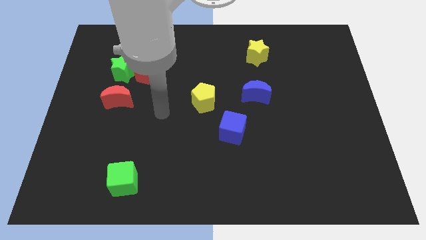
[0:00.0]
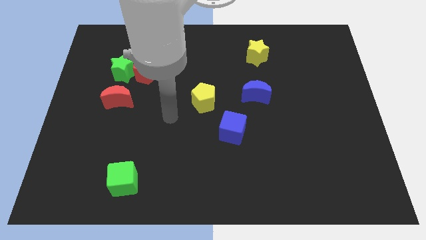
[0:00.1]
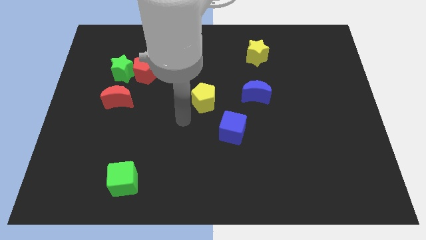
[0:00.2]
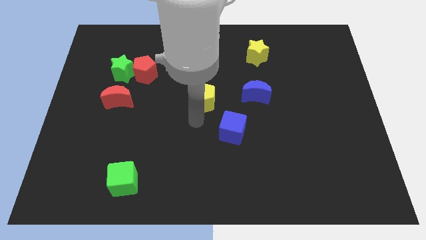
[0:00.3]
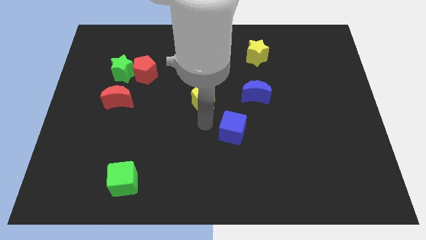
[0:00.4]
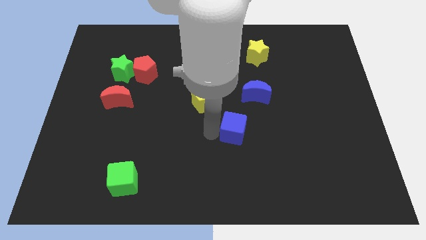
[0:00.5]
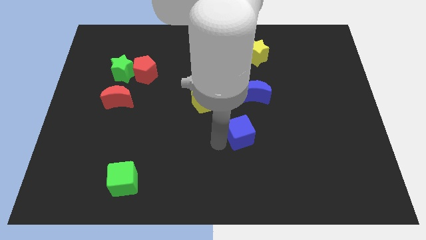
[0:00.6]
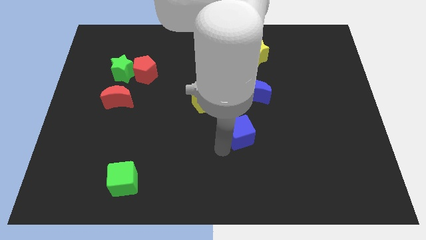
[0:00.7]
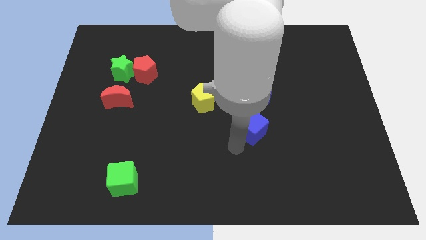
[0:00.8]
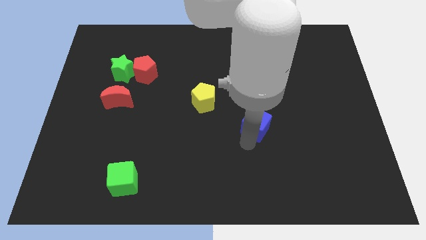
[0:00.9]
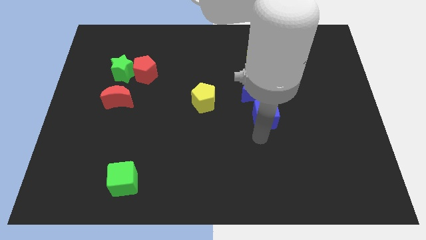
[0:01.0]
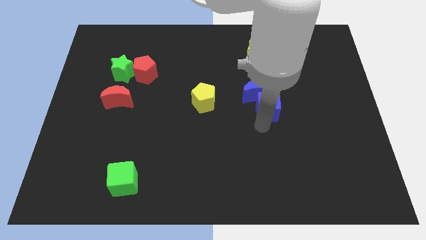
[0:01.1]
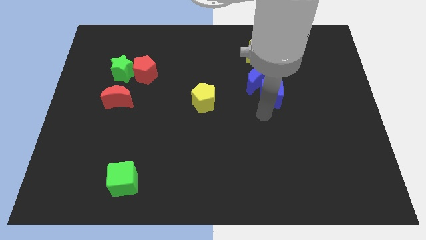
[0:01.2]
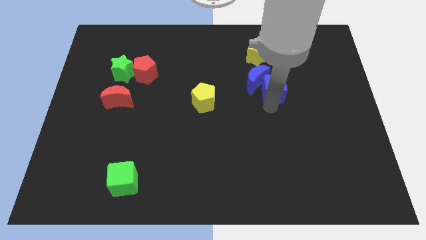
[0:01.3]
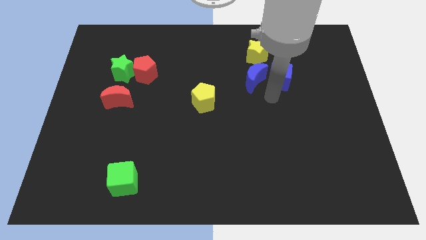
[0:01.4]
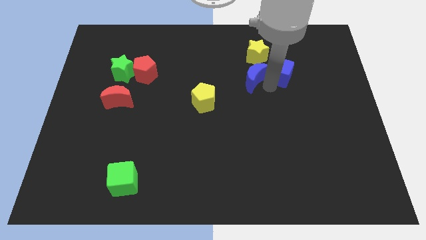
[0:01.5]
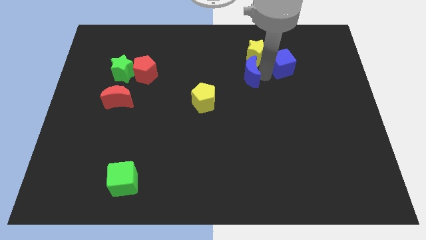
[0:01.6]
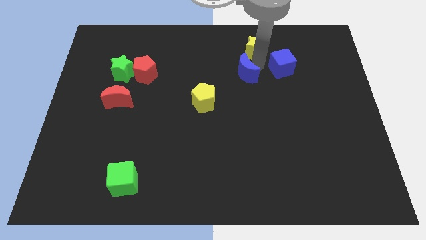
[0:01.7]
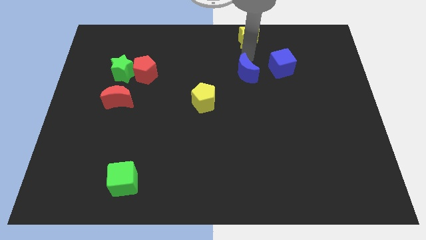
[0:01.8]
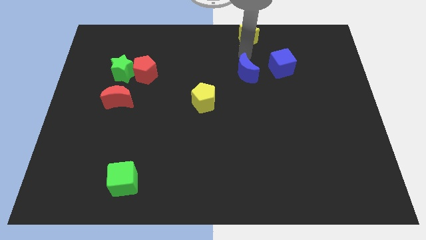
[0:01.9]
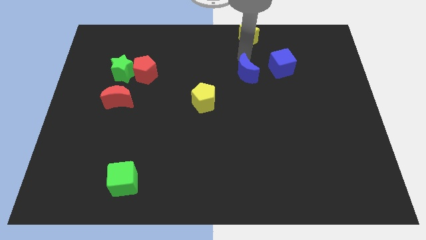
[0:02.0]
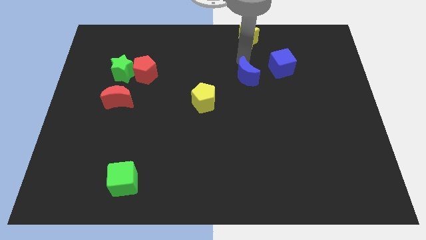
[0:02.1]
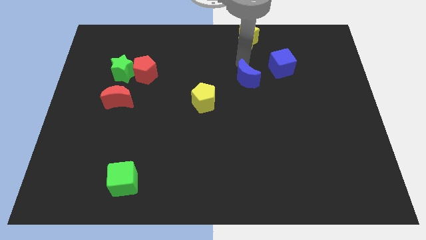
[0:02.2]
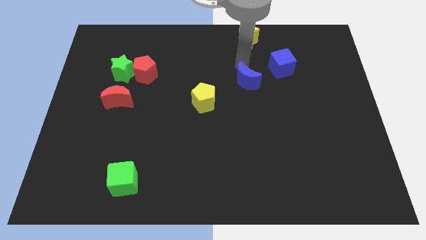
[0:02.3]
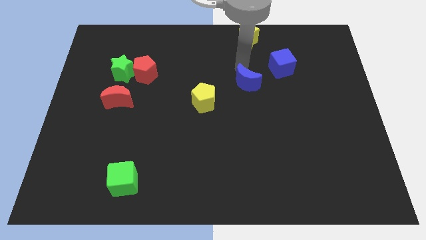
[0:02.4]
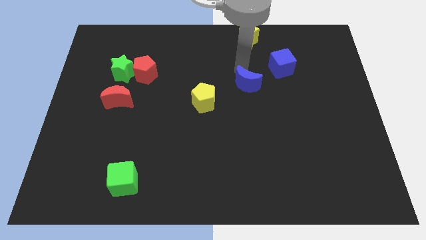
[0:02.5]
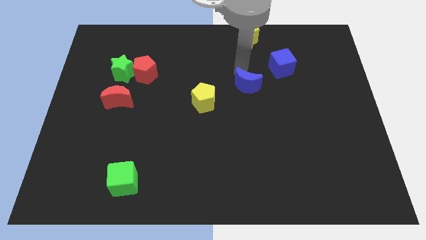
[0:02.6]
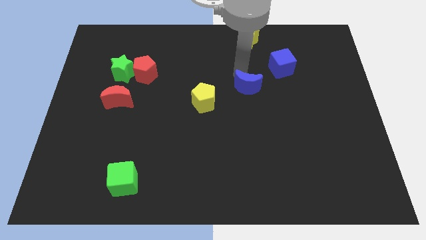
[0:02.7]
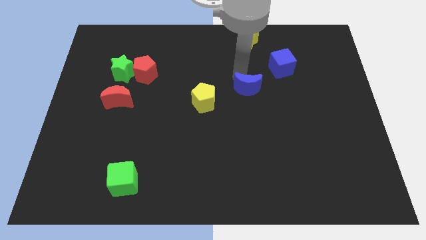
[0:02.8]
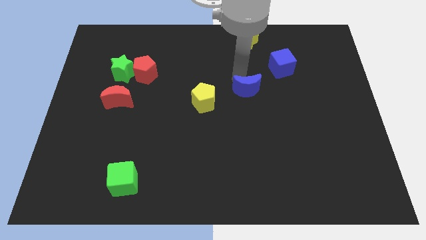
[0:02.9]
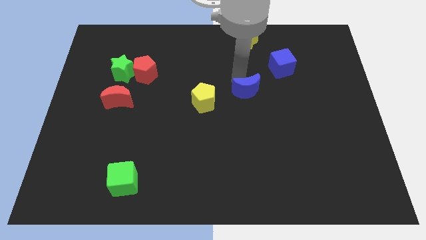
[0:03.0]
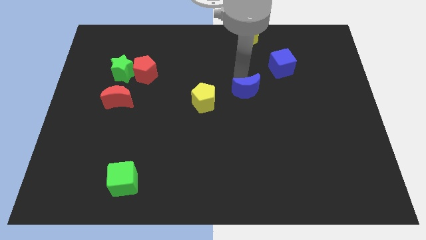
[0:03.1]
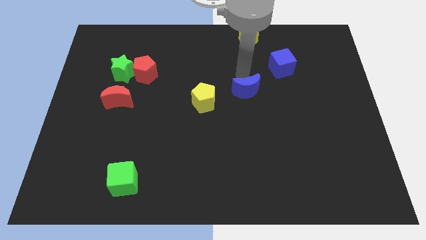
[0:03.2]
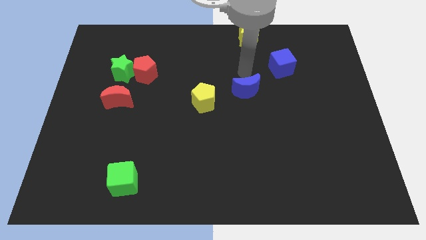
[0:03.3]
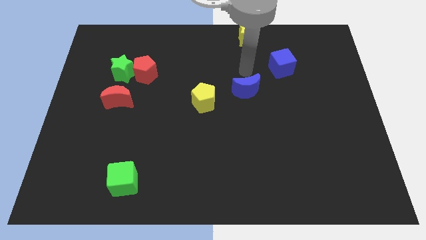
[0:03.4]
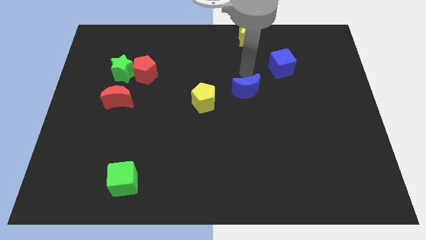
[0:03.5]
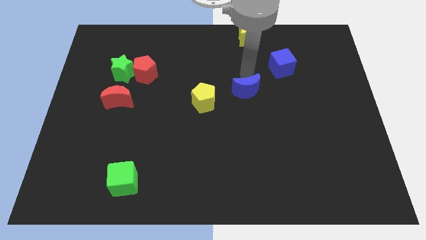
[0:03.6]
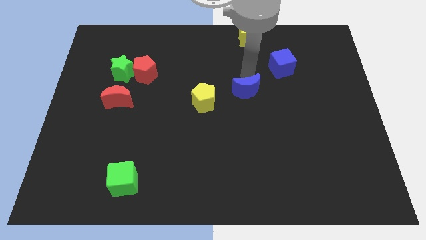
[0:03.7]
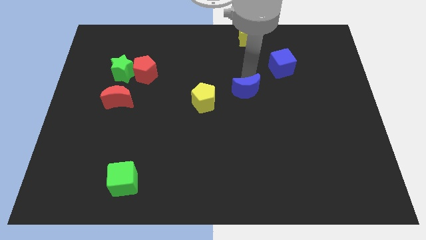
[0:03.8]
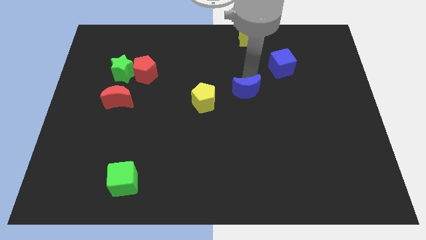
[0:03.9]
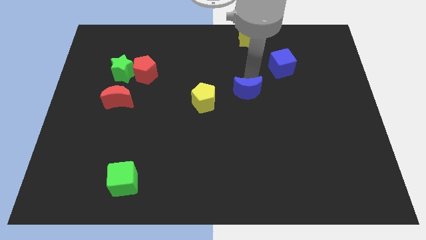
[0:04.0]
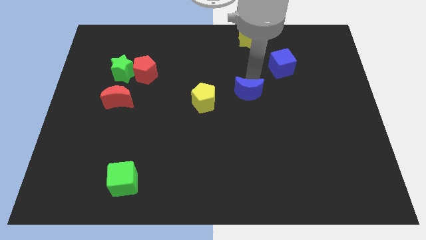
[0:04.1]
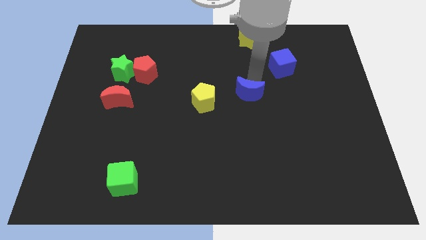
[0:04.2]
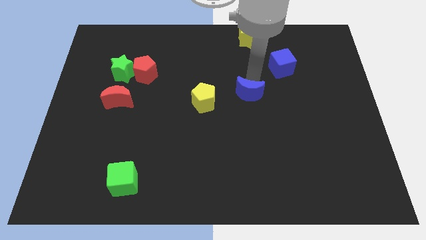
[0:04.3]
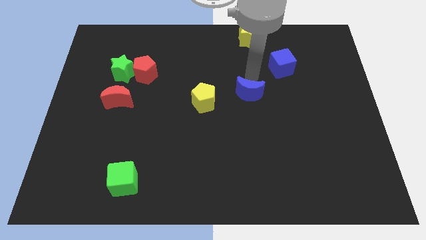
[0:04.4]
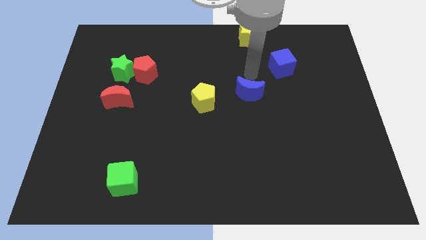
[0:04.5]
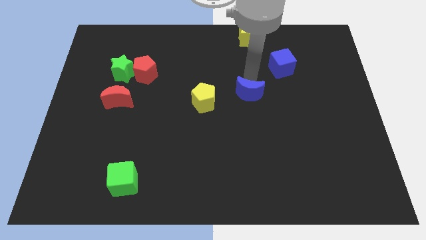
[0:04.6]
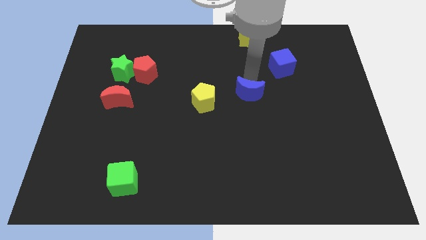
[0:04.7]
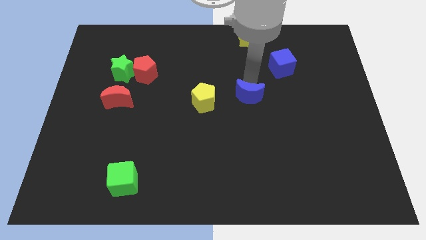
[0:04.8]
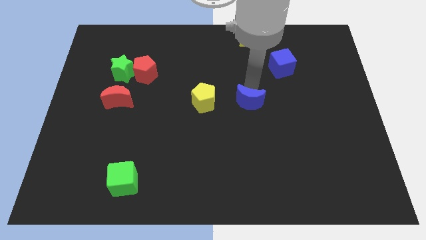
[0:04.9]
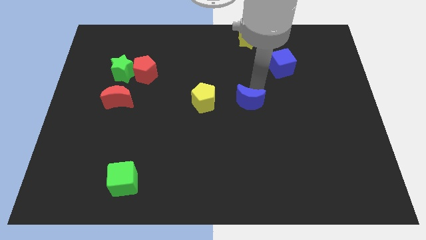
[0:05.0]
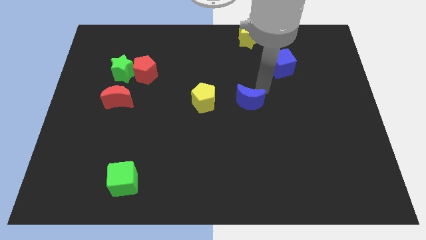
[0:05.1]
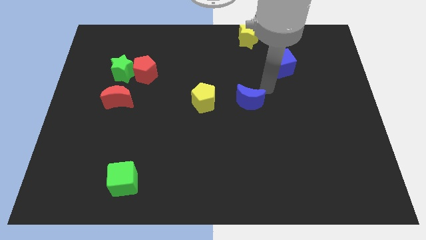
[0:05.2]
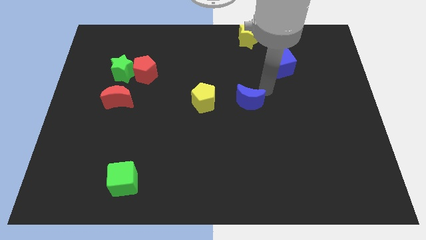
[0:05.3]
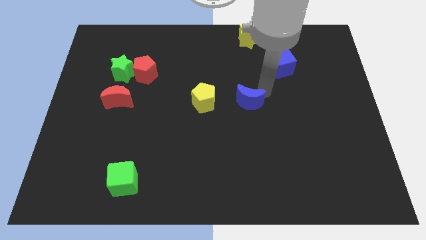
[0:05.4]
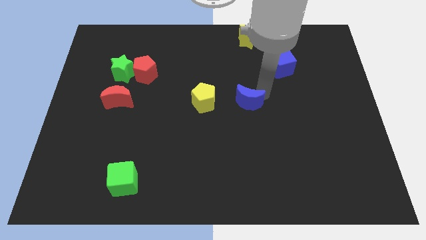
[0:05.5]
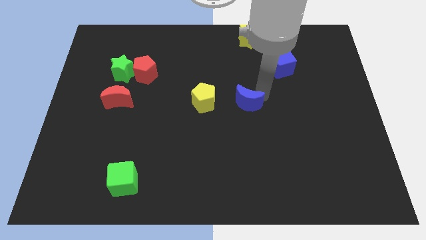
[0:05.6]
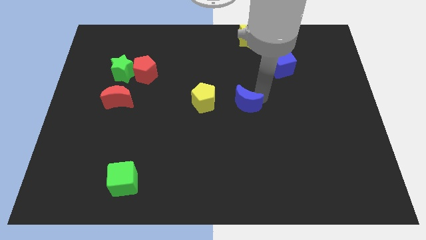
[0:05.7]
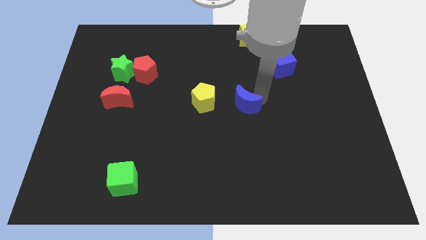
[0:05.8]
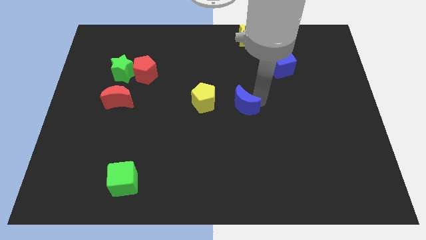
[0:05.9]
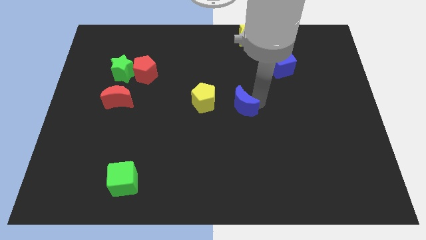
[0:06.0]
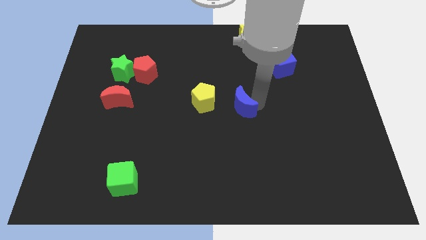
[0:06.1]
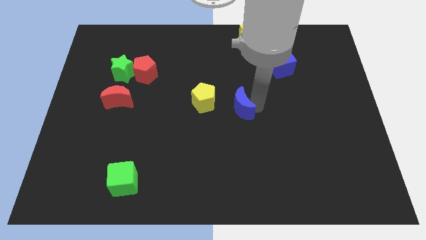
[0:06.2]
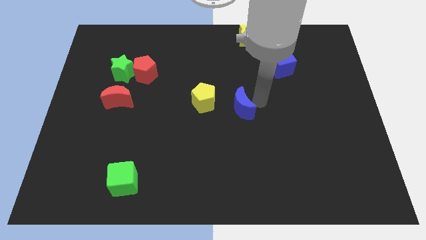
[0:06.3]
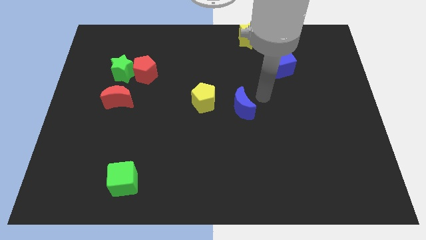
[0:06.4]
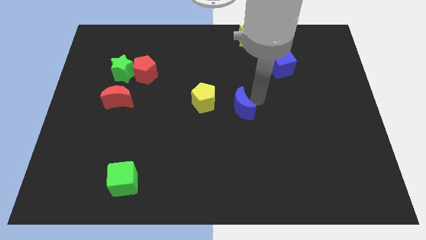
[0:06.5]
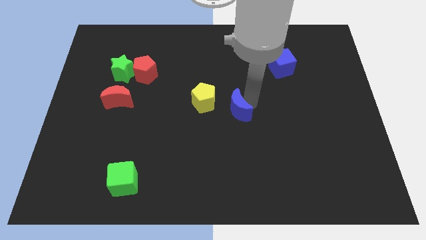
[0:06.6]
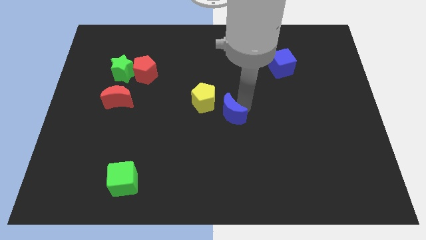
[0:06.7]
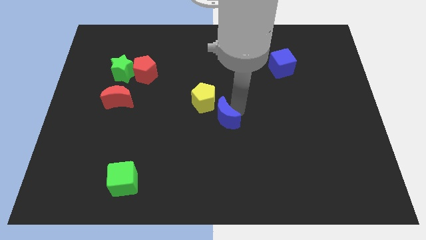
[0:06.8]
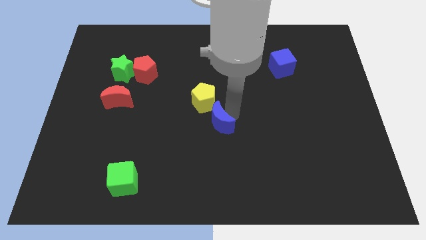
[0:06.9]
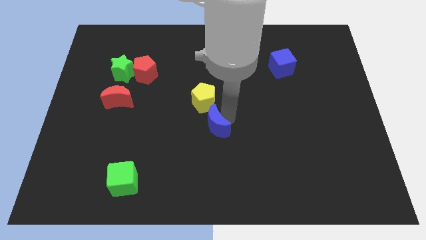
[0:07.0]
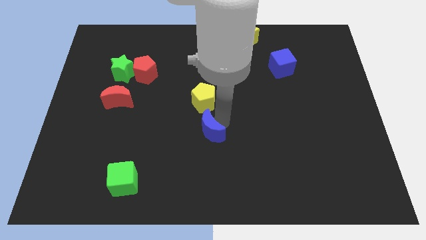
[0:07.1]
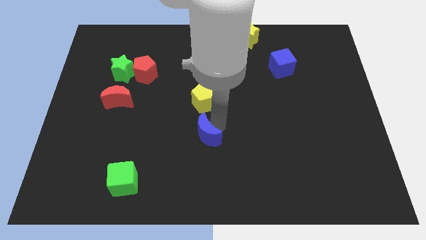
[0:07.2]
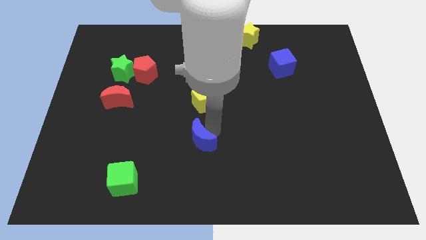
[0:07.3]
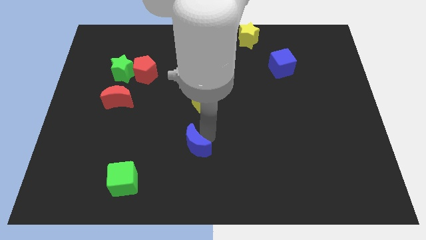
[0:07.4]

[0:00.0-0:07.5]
push the blue moon down and to the left diagonally

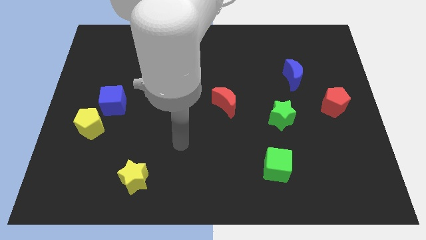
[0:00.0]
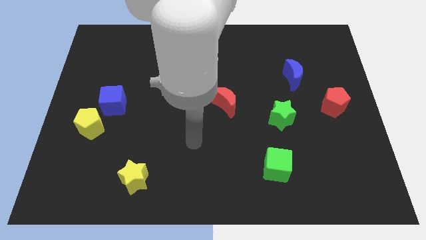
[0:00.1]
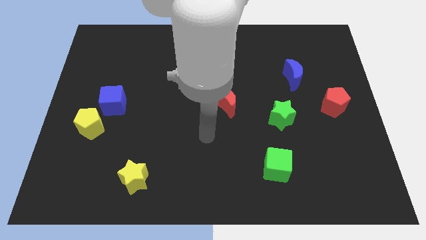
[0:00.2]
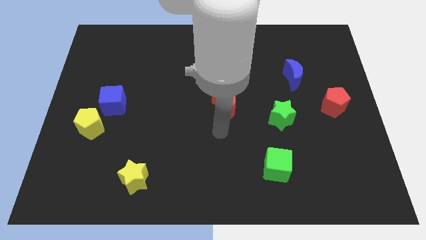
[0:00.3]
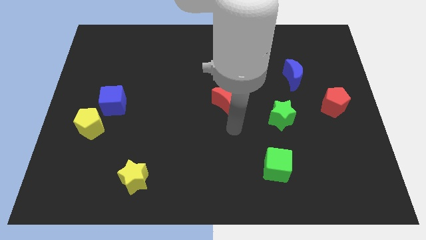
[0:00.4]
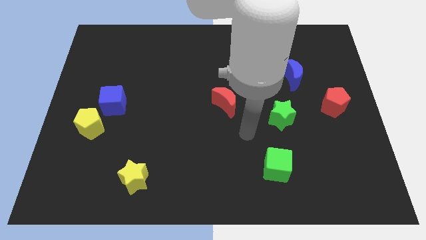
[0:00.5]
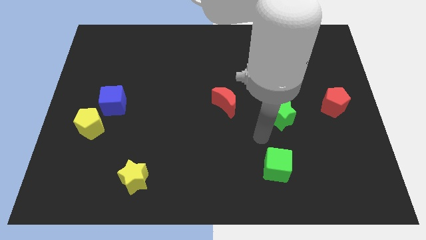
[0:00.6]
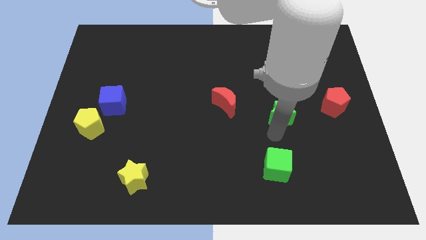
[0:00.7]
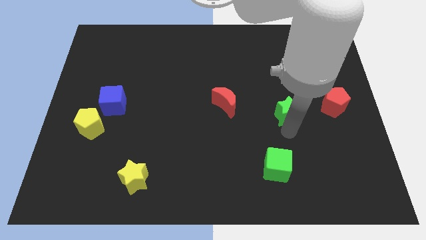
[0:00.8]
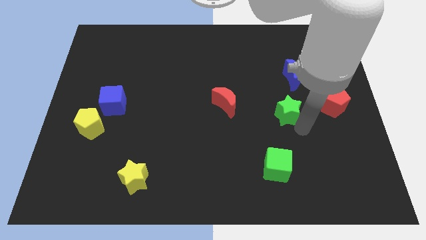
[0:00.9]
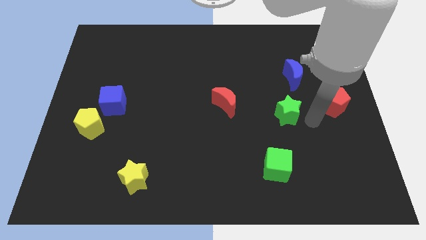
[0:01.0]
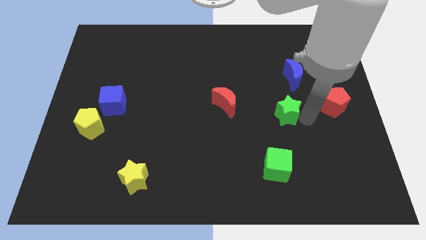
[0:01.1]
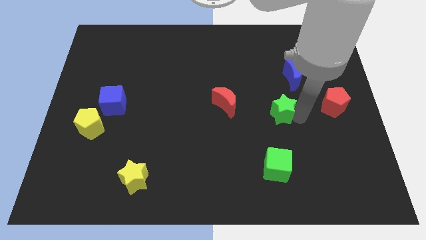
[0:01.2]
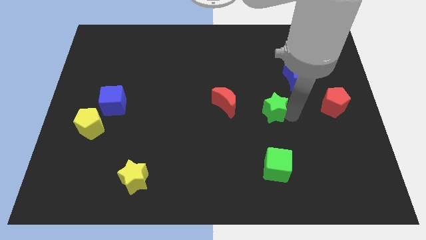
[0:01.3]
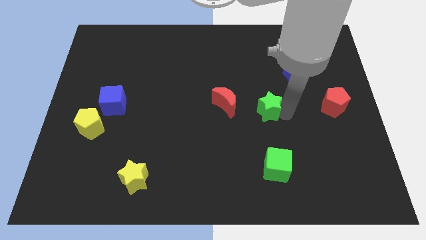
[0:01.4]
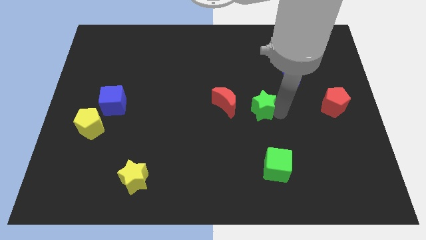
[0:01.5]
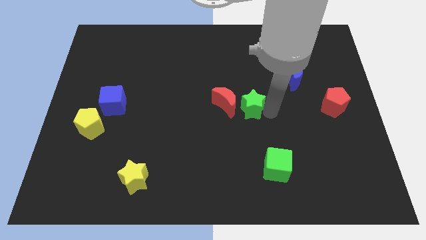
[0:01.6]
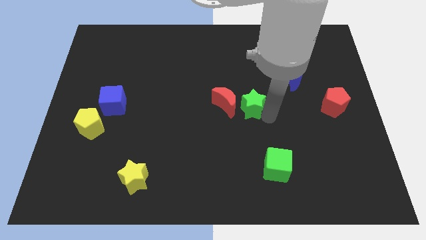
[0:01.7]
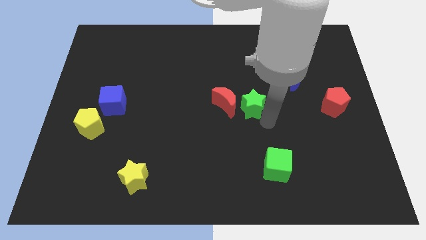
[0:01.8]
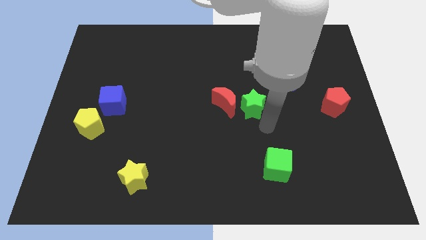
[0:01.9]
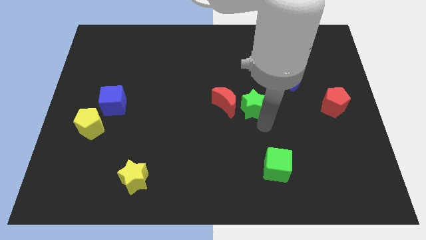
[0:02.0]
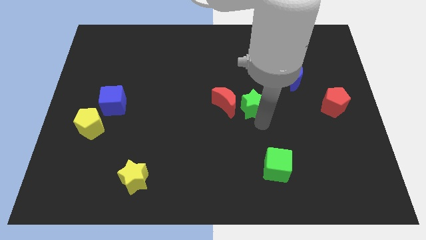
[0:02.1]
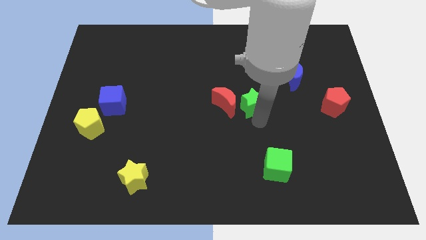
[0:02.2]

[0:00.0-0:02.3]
push the green star up and then left slightly
